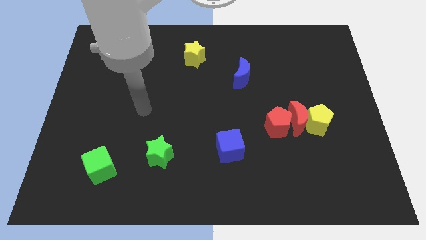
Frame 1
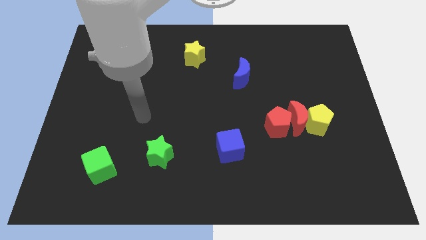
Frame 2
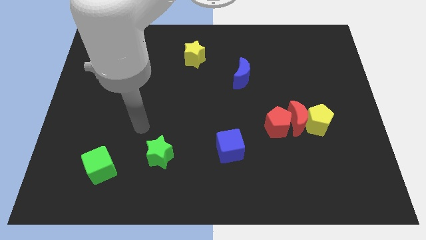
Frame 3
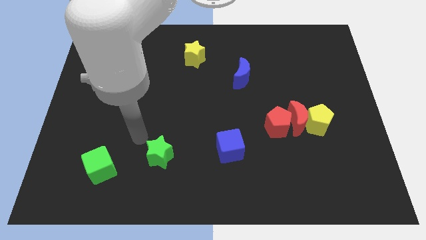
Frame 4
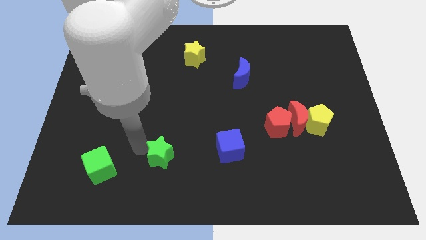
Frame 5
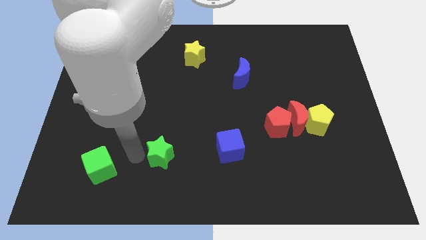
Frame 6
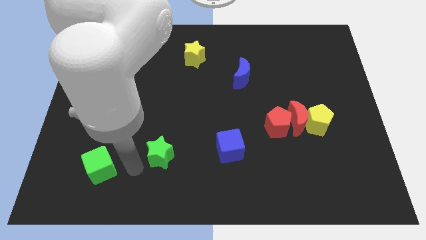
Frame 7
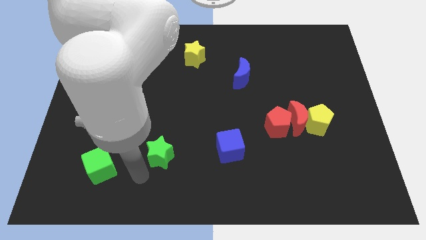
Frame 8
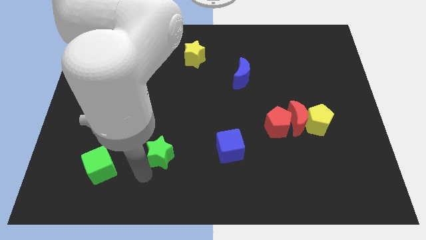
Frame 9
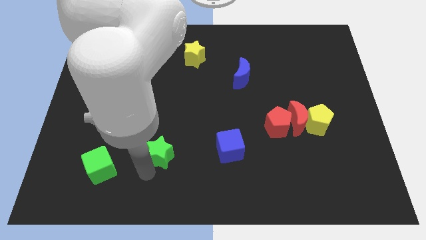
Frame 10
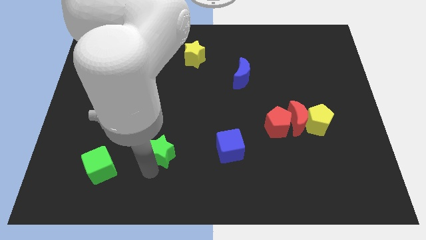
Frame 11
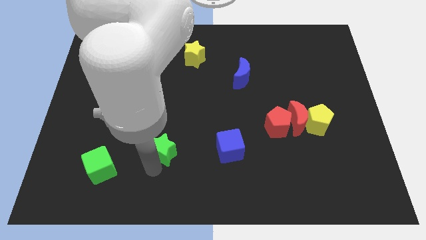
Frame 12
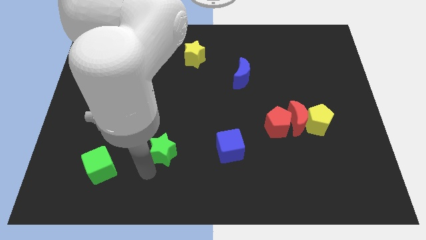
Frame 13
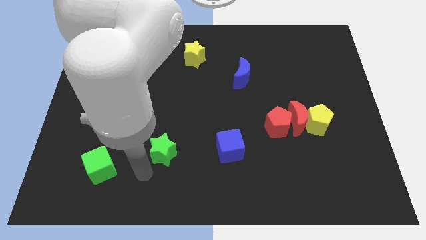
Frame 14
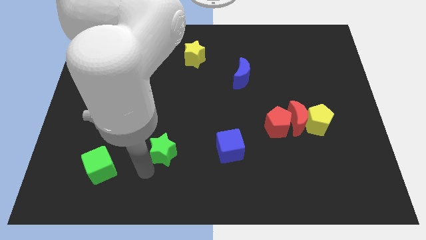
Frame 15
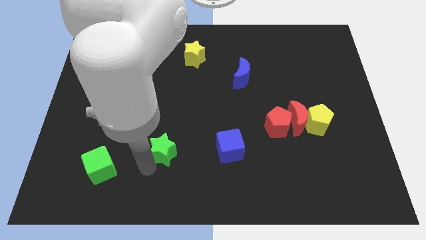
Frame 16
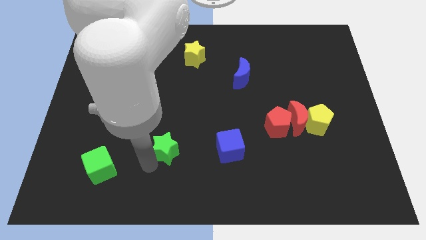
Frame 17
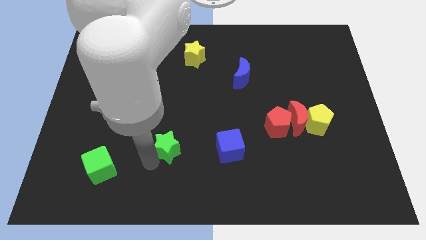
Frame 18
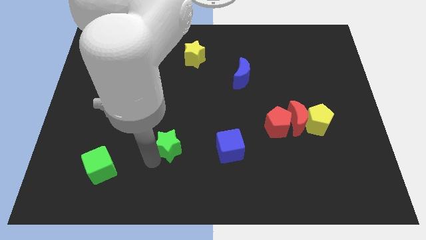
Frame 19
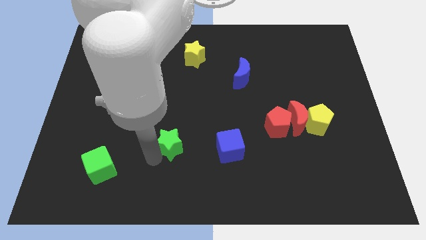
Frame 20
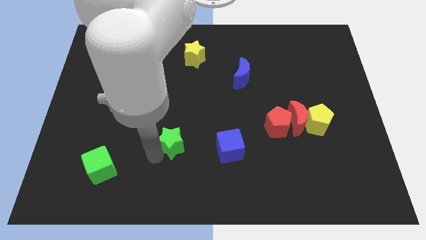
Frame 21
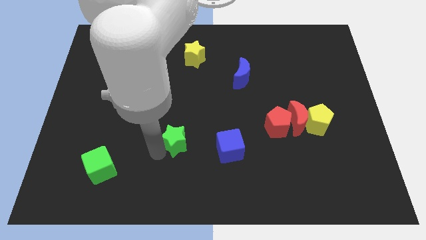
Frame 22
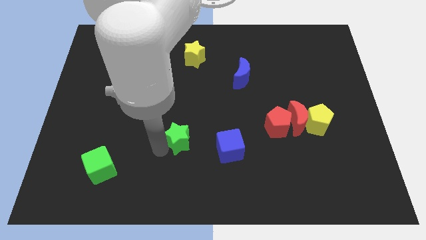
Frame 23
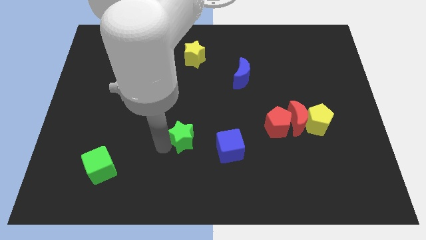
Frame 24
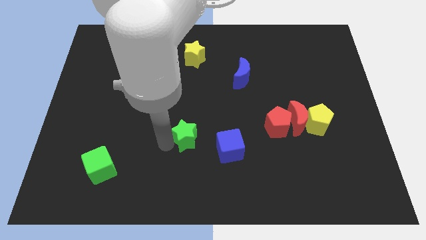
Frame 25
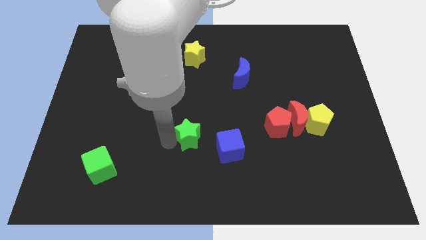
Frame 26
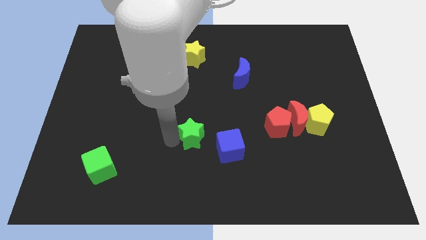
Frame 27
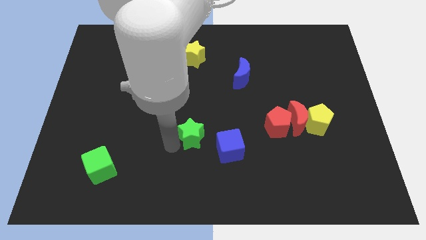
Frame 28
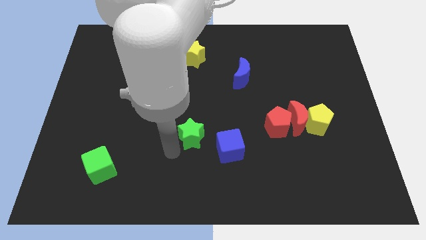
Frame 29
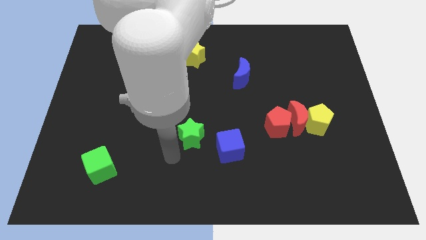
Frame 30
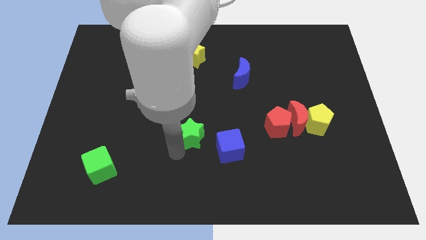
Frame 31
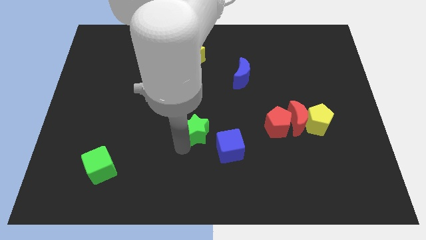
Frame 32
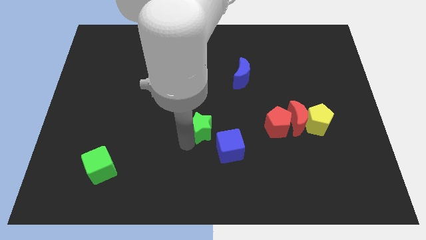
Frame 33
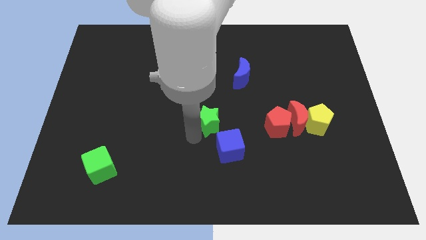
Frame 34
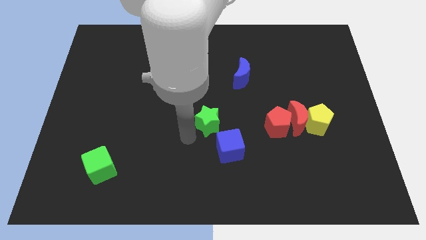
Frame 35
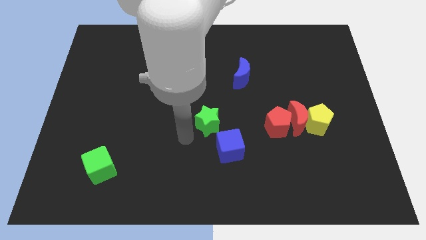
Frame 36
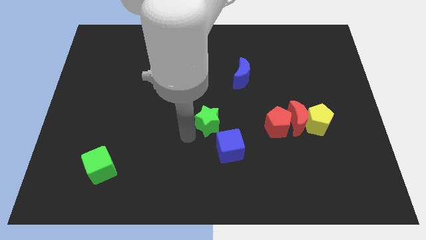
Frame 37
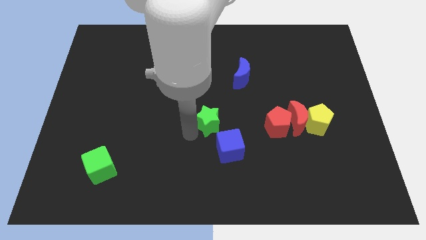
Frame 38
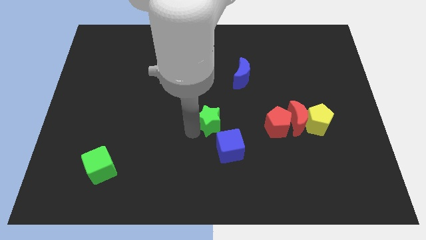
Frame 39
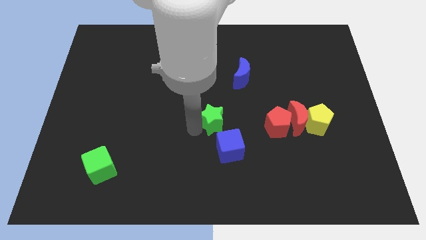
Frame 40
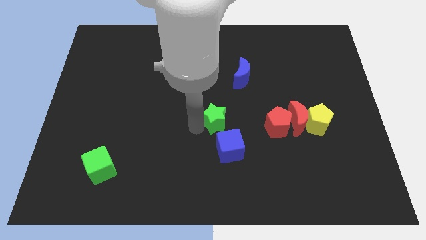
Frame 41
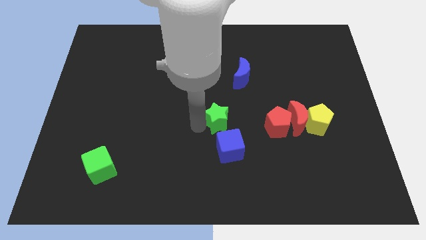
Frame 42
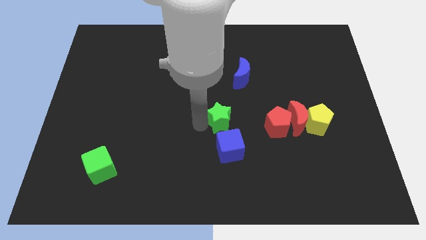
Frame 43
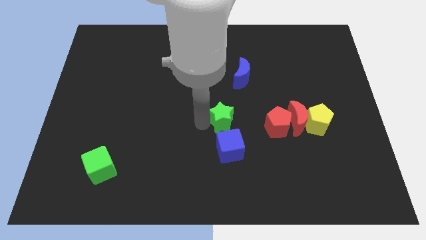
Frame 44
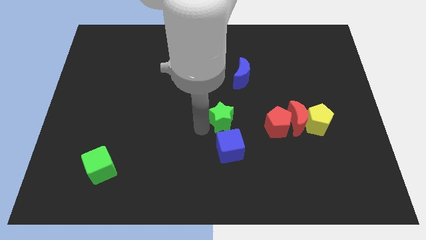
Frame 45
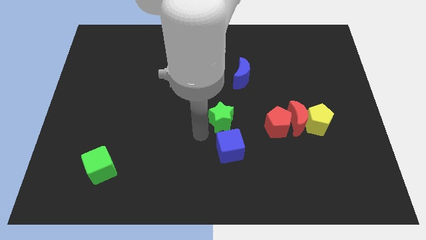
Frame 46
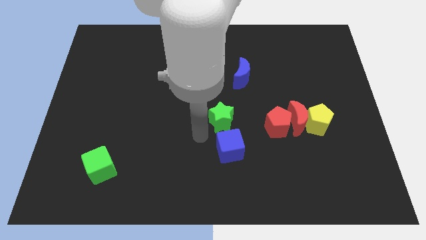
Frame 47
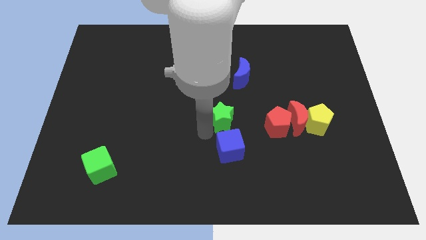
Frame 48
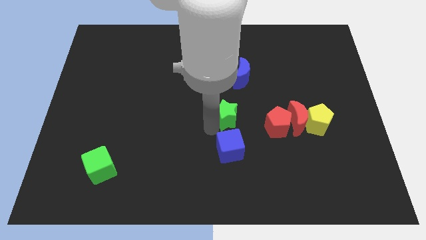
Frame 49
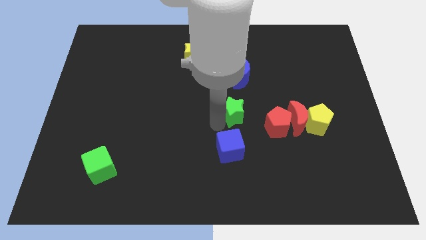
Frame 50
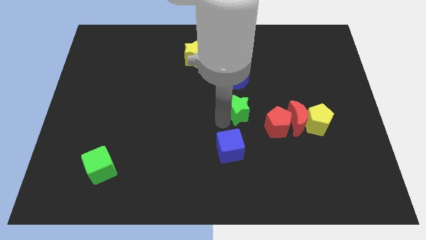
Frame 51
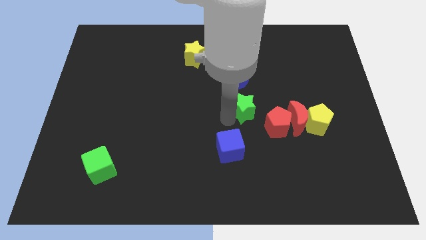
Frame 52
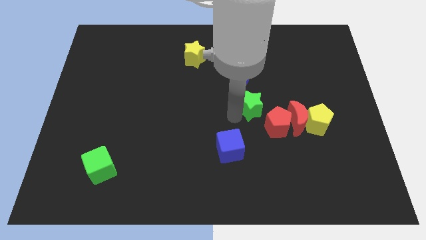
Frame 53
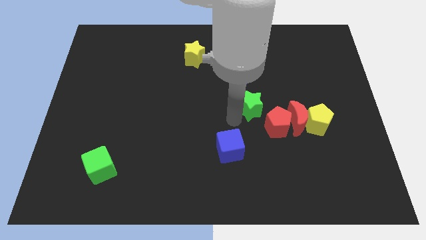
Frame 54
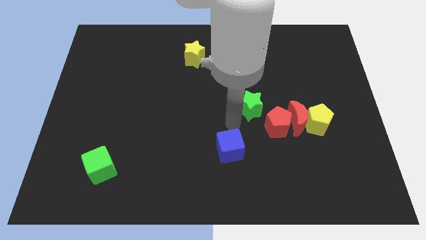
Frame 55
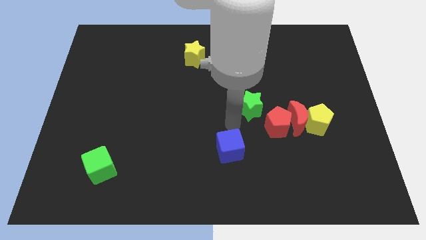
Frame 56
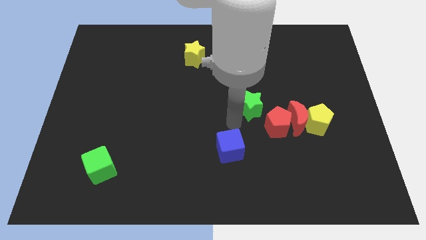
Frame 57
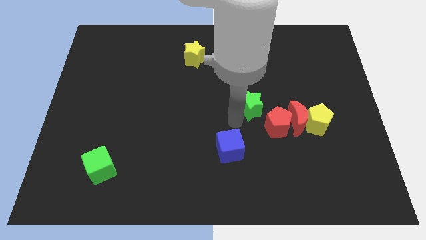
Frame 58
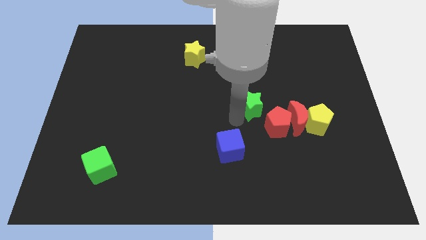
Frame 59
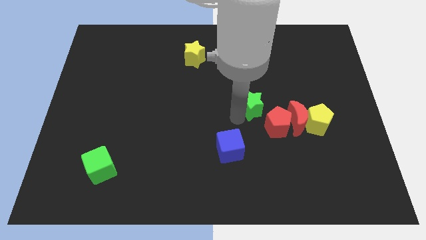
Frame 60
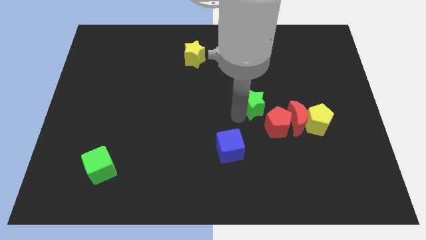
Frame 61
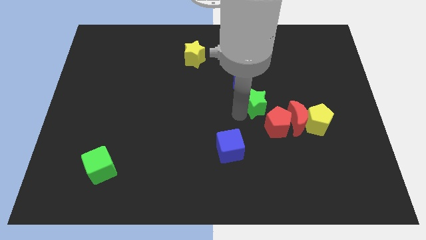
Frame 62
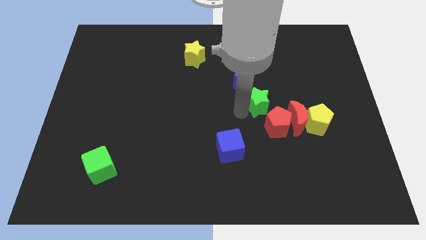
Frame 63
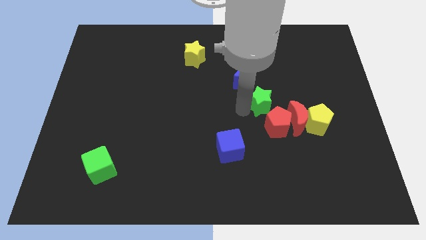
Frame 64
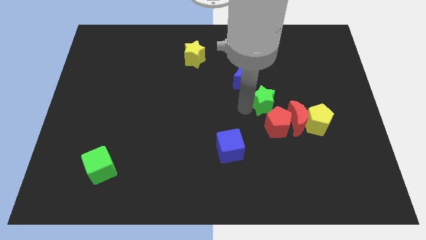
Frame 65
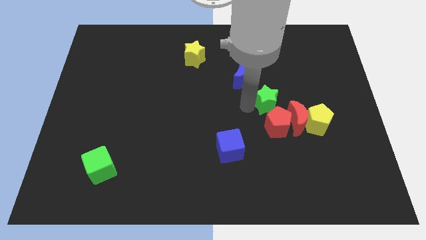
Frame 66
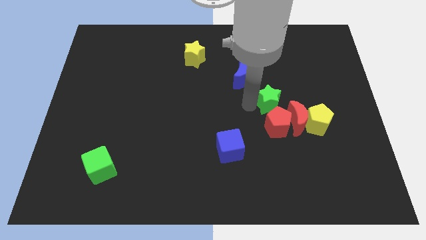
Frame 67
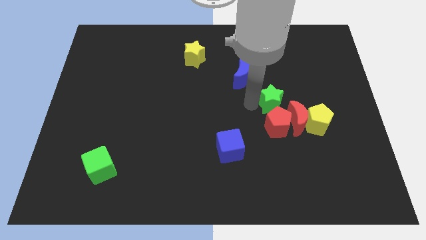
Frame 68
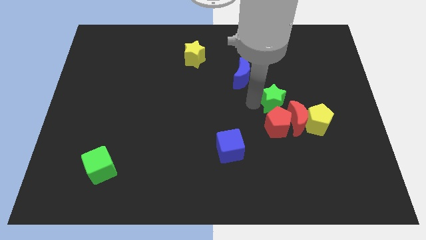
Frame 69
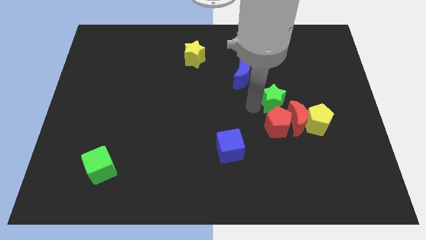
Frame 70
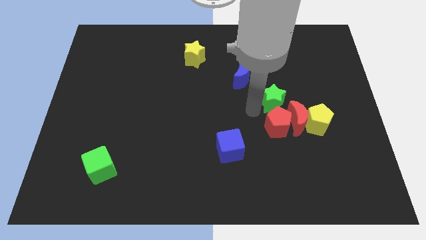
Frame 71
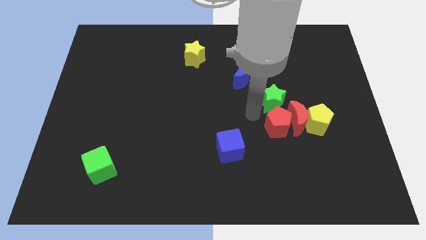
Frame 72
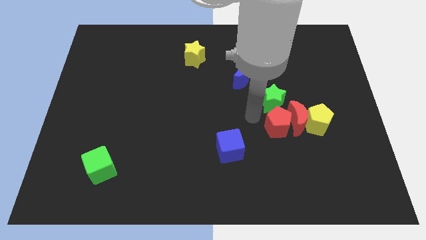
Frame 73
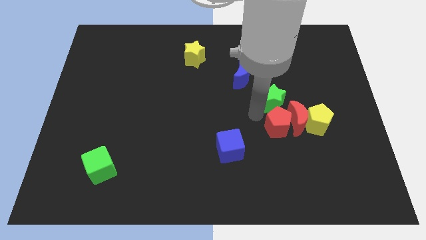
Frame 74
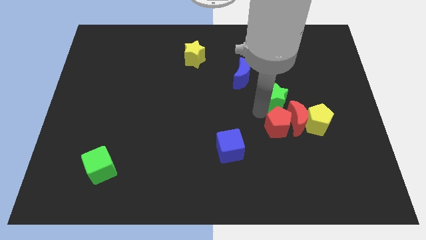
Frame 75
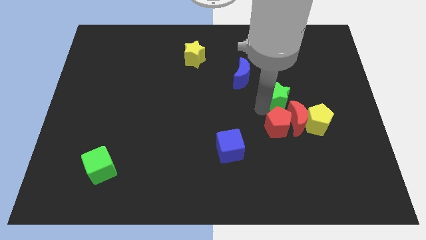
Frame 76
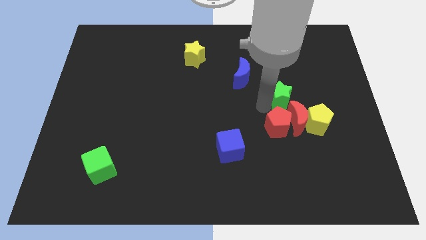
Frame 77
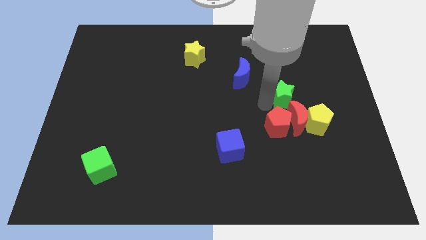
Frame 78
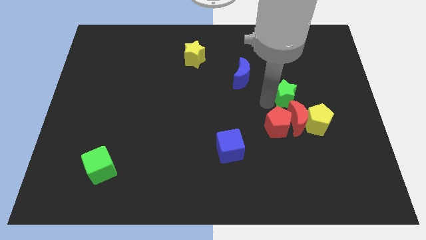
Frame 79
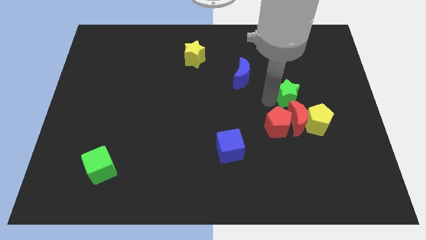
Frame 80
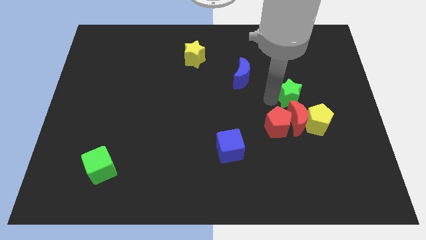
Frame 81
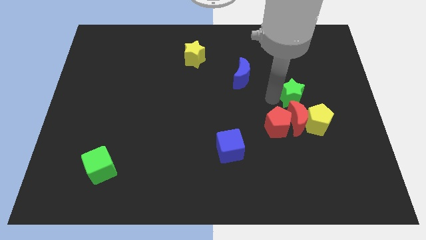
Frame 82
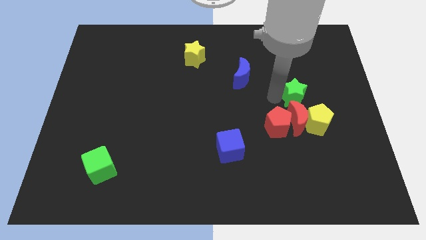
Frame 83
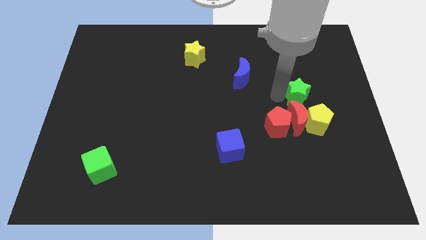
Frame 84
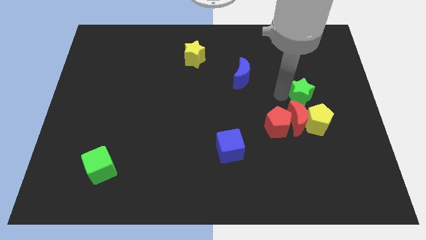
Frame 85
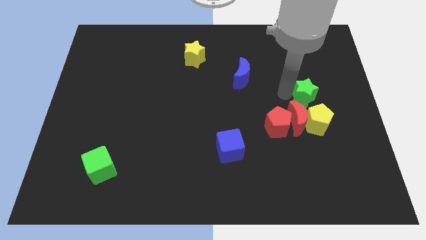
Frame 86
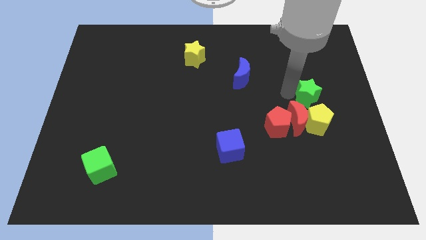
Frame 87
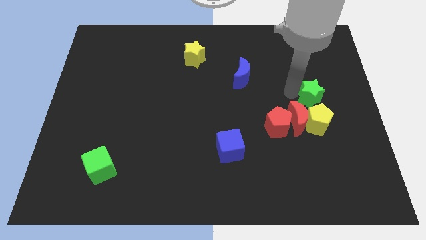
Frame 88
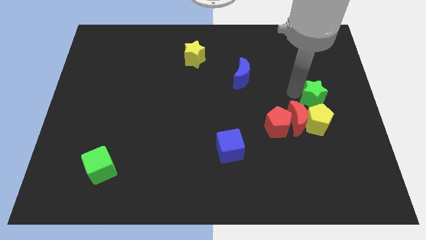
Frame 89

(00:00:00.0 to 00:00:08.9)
push the green star to the top right side of the yellow pentagon
